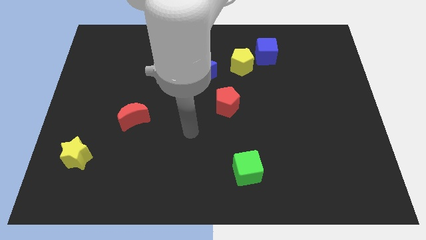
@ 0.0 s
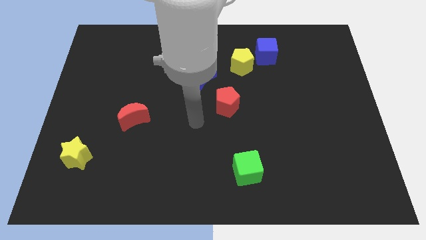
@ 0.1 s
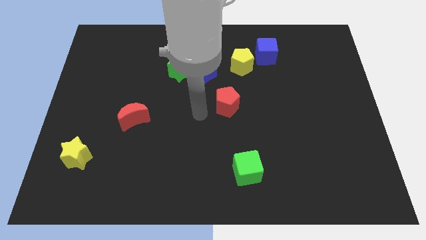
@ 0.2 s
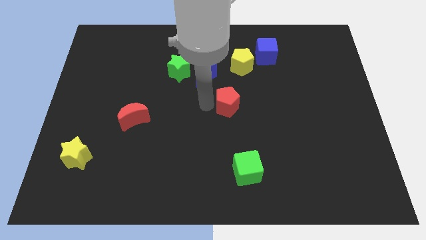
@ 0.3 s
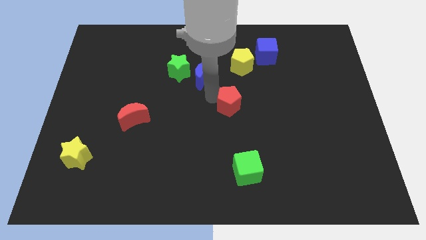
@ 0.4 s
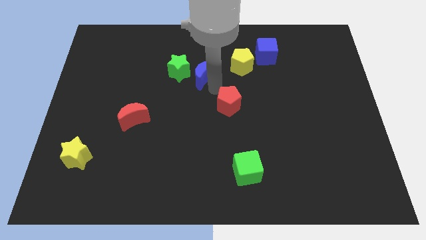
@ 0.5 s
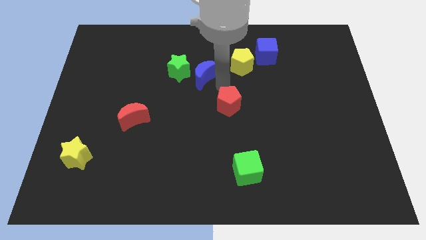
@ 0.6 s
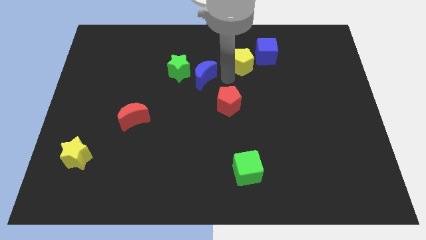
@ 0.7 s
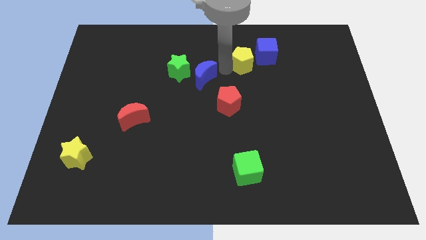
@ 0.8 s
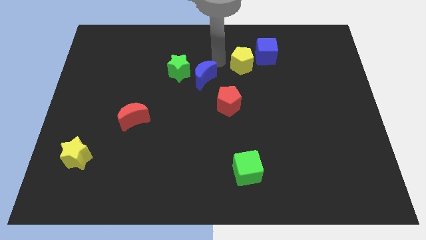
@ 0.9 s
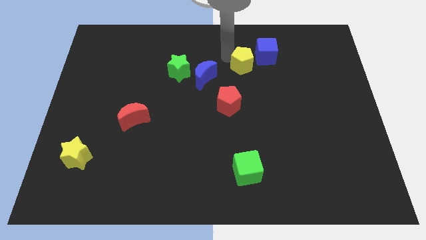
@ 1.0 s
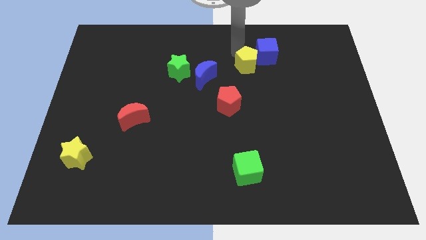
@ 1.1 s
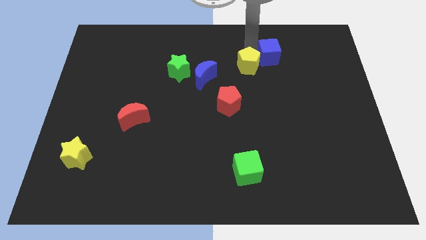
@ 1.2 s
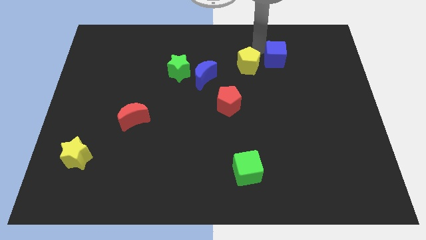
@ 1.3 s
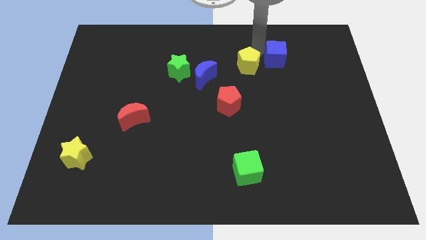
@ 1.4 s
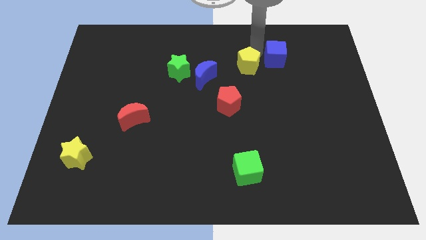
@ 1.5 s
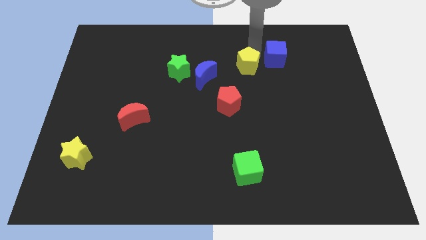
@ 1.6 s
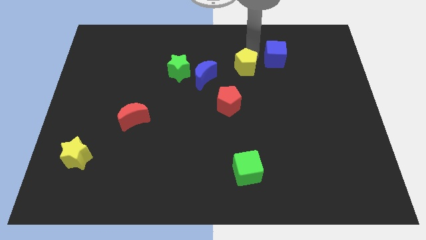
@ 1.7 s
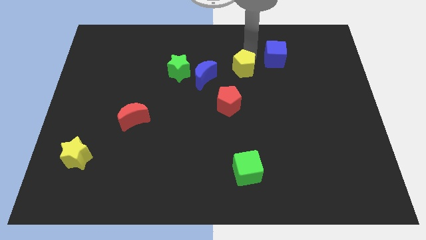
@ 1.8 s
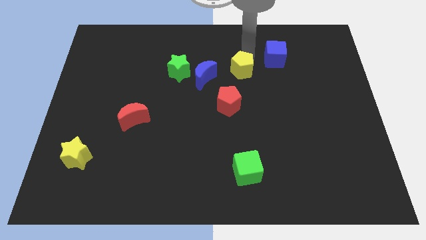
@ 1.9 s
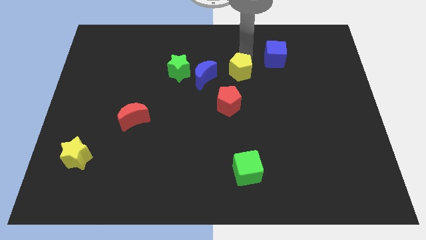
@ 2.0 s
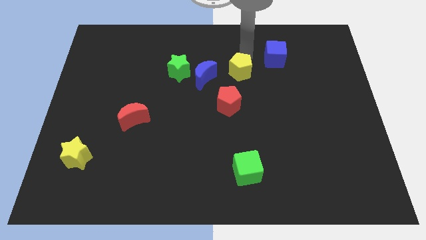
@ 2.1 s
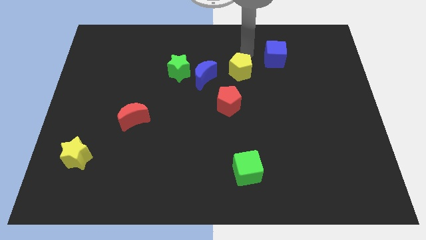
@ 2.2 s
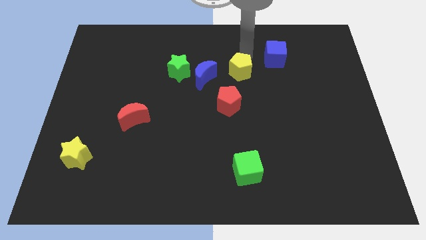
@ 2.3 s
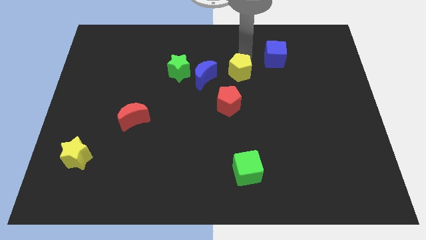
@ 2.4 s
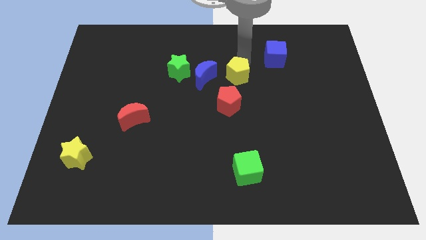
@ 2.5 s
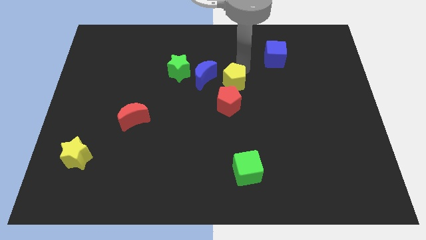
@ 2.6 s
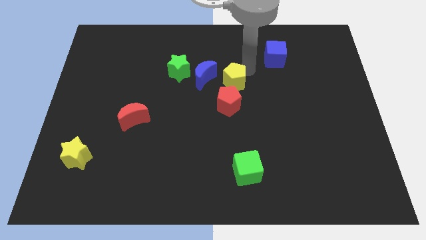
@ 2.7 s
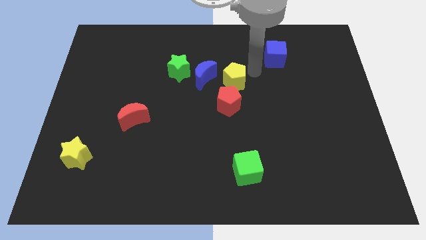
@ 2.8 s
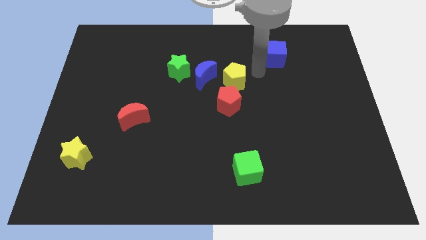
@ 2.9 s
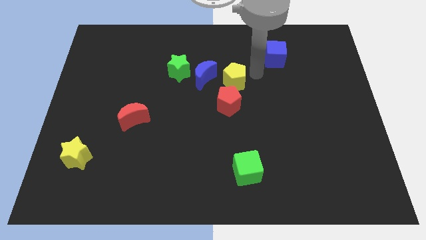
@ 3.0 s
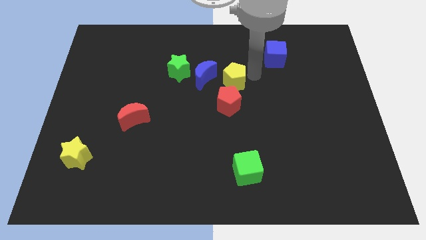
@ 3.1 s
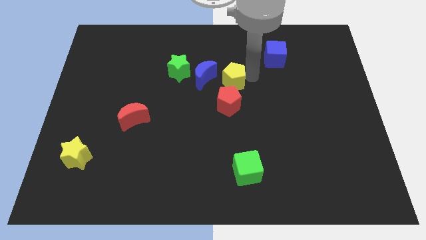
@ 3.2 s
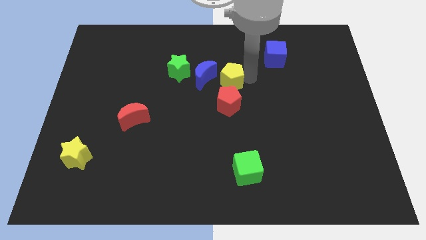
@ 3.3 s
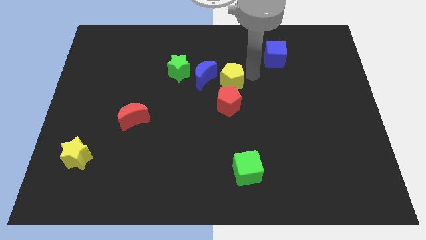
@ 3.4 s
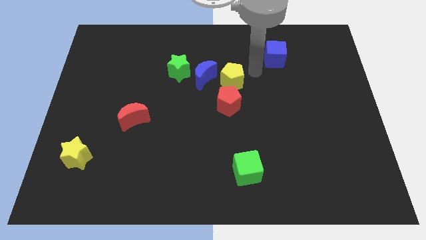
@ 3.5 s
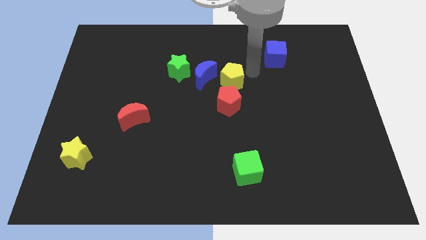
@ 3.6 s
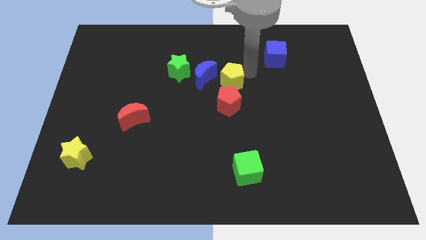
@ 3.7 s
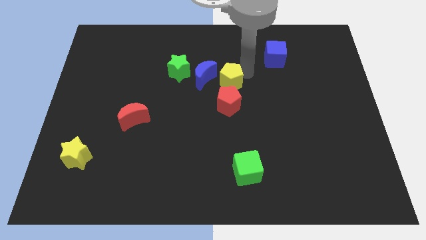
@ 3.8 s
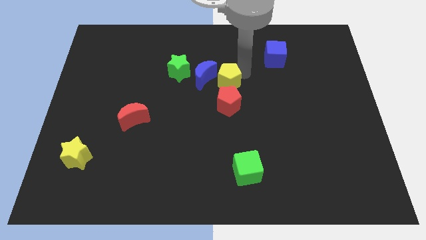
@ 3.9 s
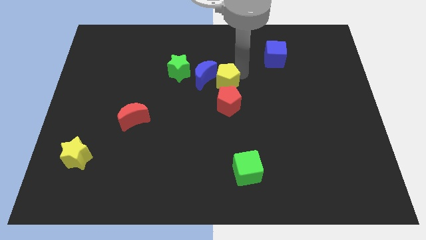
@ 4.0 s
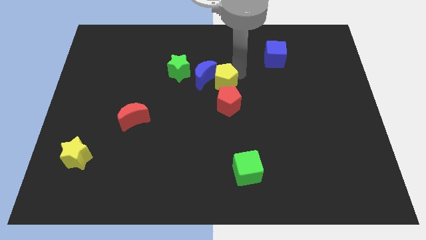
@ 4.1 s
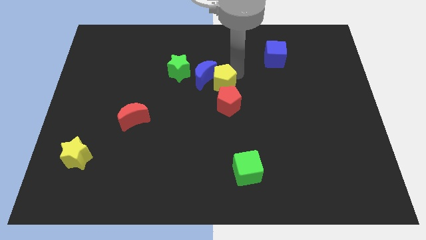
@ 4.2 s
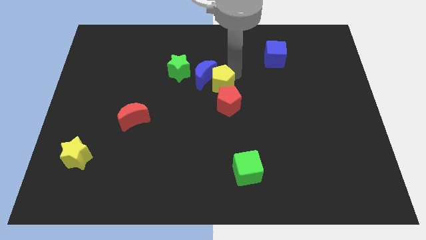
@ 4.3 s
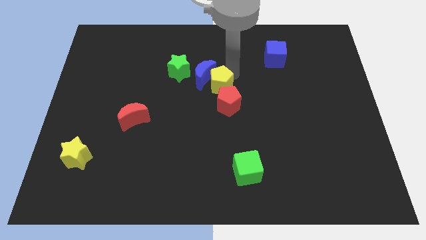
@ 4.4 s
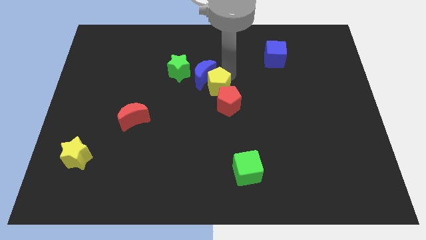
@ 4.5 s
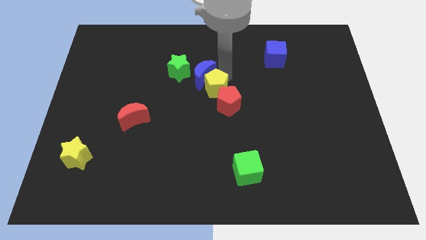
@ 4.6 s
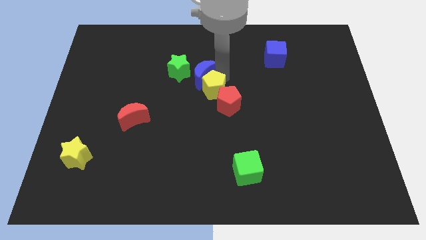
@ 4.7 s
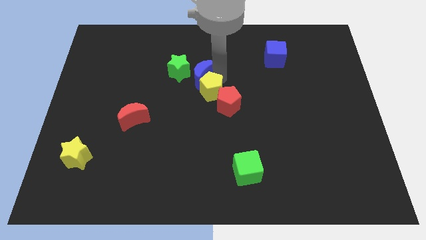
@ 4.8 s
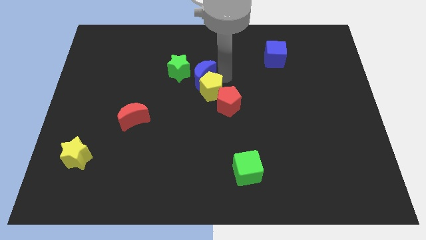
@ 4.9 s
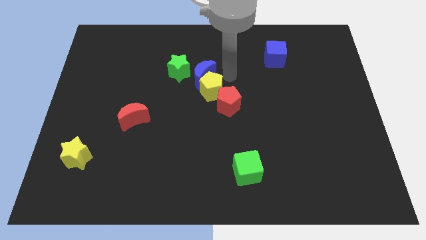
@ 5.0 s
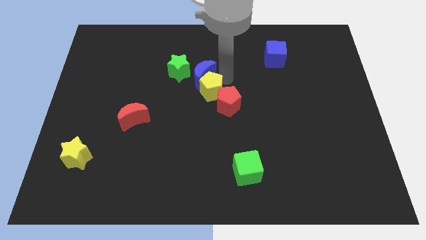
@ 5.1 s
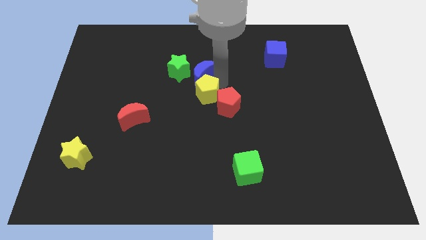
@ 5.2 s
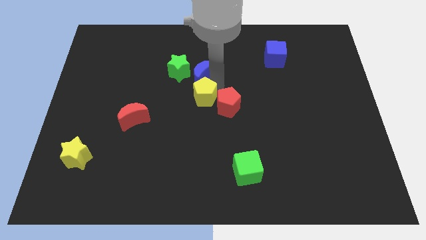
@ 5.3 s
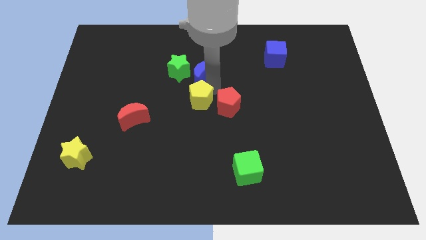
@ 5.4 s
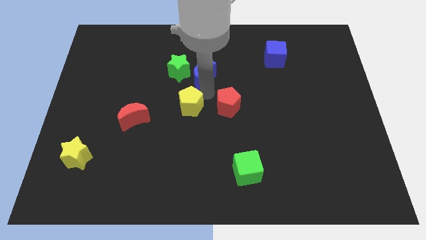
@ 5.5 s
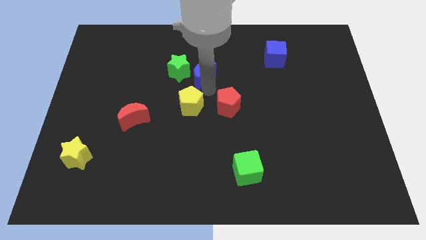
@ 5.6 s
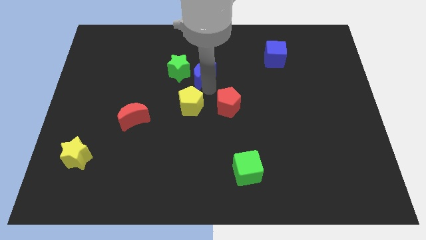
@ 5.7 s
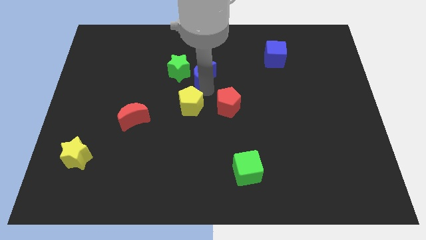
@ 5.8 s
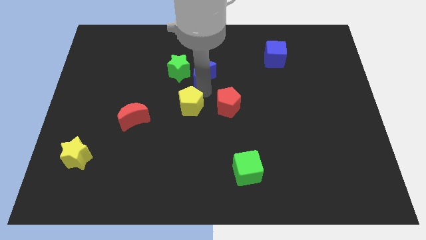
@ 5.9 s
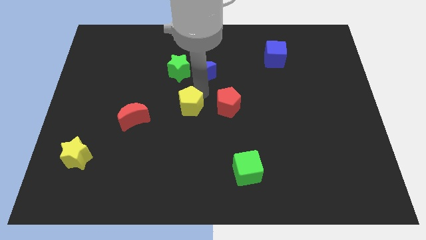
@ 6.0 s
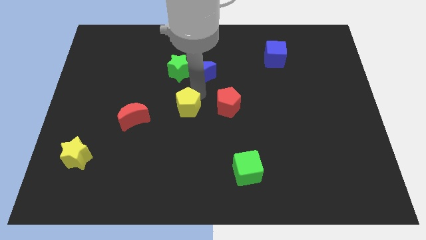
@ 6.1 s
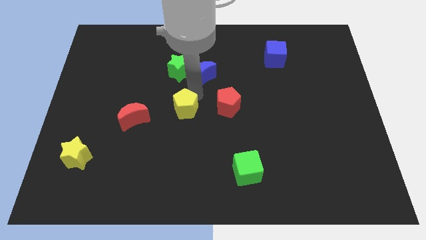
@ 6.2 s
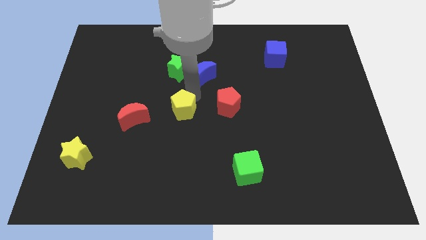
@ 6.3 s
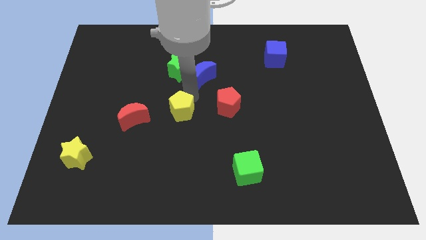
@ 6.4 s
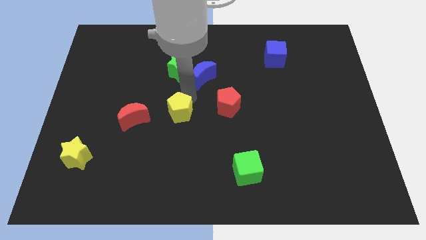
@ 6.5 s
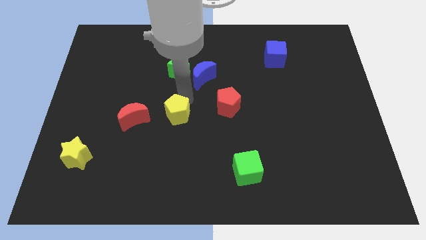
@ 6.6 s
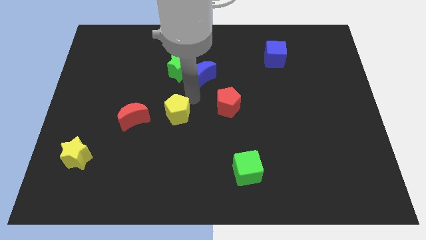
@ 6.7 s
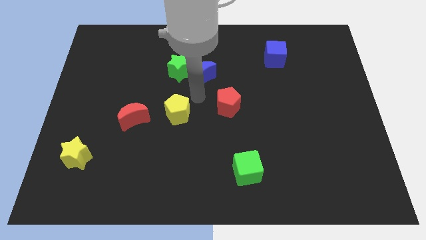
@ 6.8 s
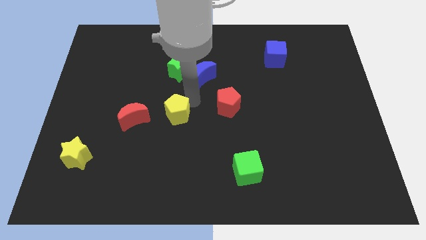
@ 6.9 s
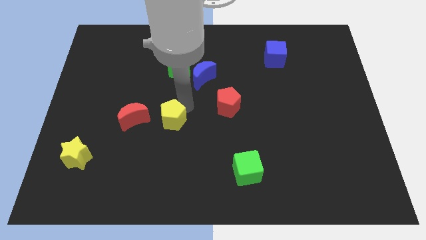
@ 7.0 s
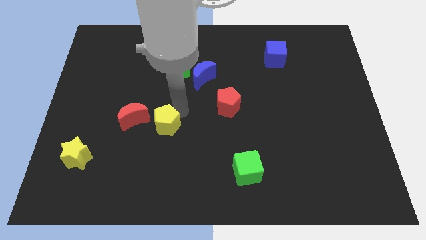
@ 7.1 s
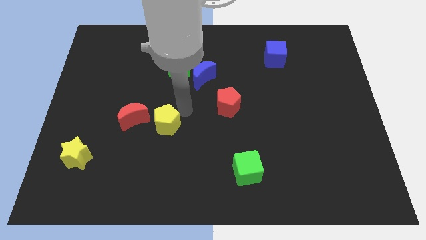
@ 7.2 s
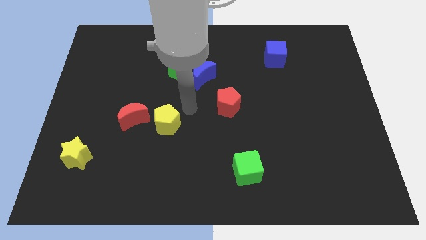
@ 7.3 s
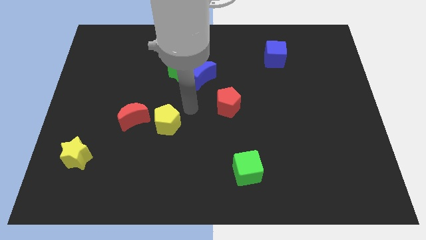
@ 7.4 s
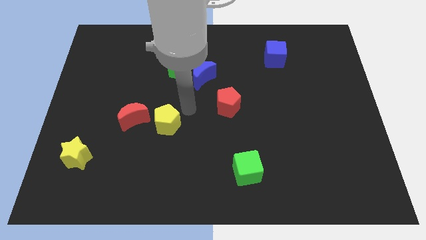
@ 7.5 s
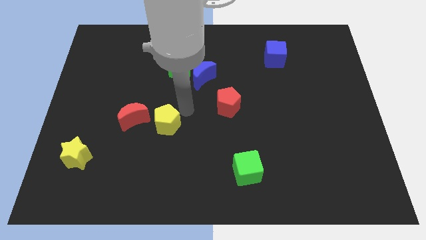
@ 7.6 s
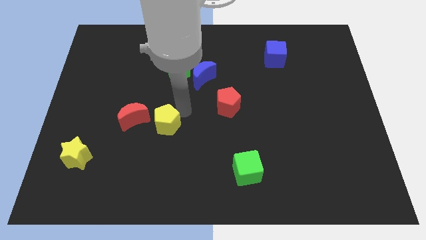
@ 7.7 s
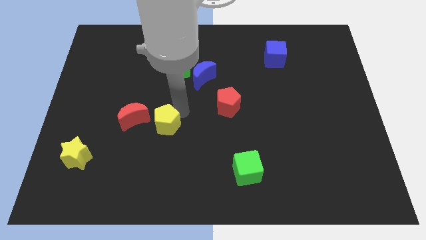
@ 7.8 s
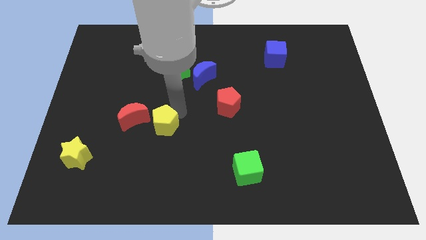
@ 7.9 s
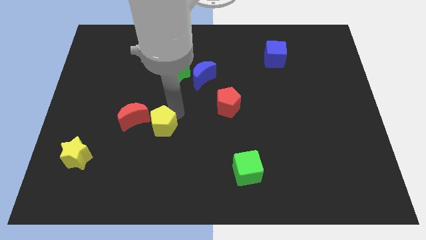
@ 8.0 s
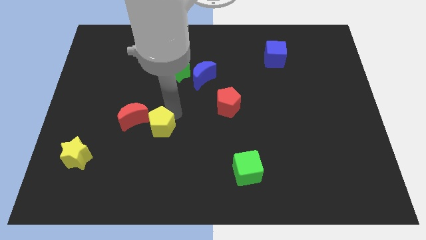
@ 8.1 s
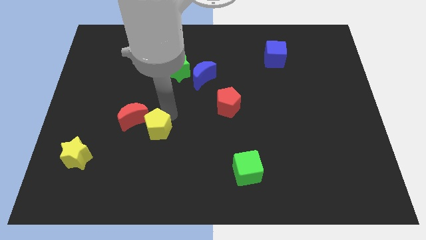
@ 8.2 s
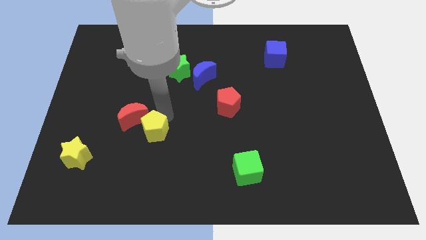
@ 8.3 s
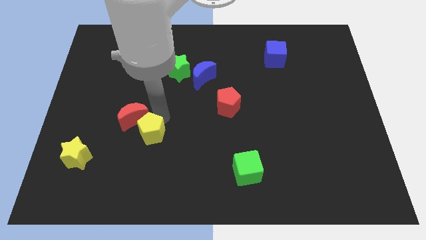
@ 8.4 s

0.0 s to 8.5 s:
put the yellow pentagon below the red moon
